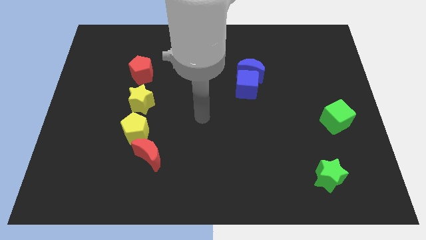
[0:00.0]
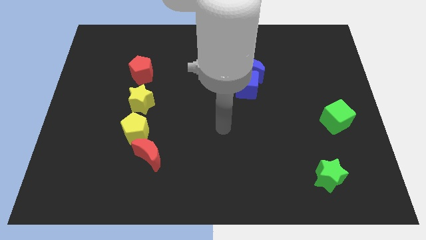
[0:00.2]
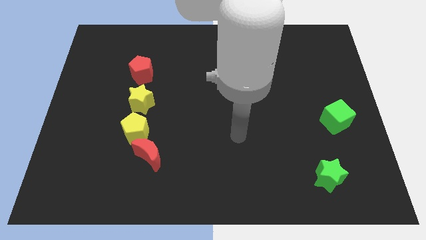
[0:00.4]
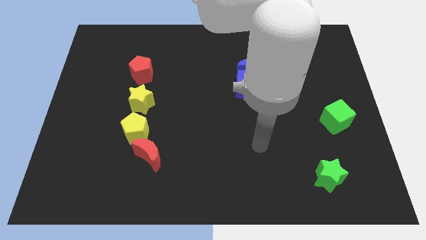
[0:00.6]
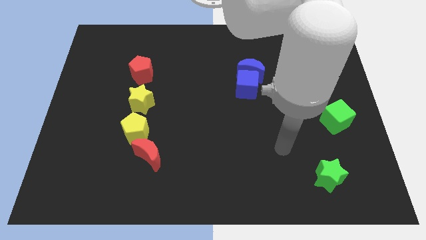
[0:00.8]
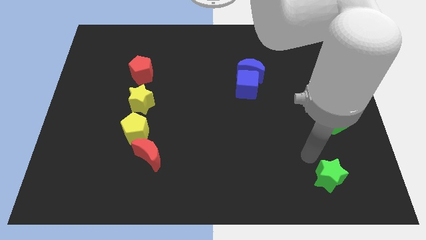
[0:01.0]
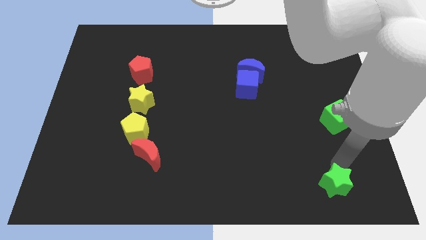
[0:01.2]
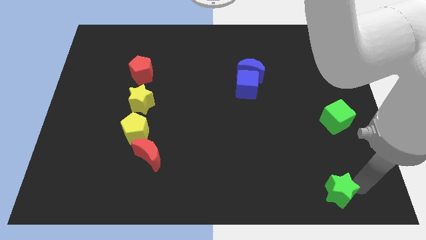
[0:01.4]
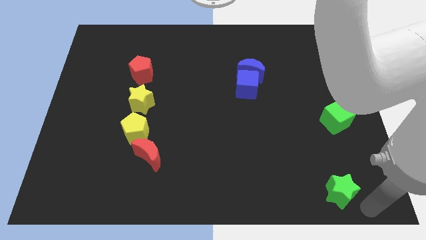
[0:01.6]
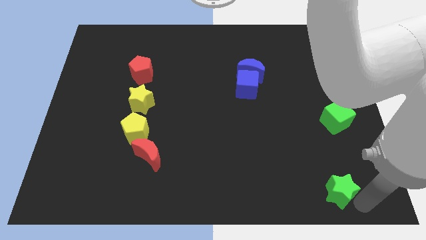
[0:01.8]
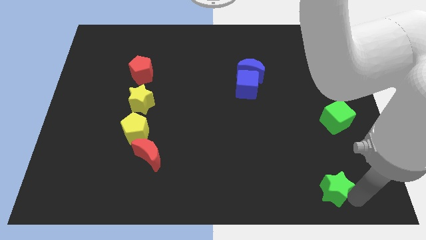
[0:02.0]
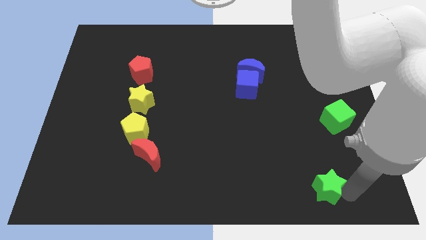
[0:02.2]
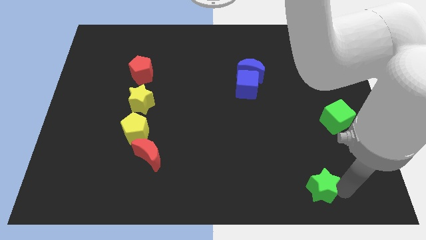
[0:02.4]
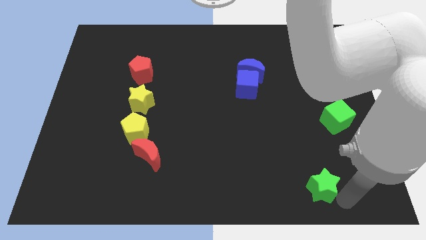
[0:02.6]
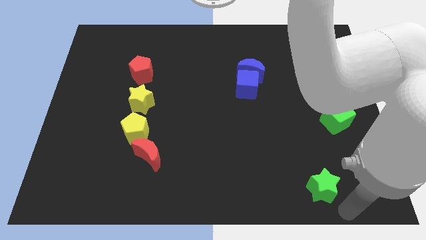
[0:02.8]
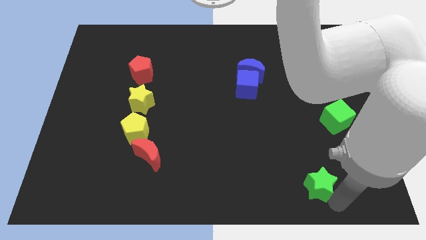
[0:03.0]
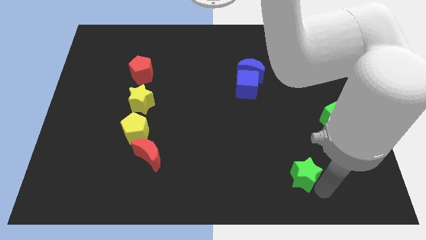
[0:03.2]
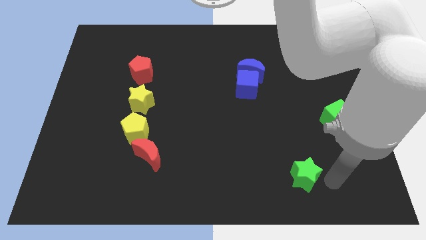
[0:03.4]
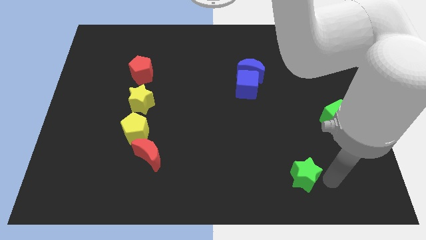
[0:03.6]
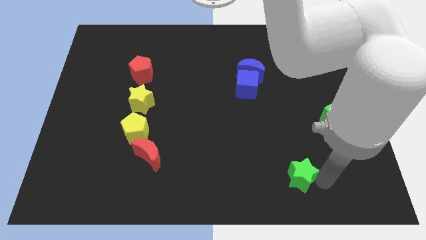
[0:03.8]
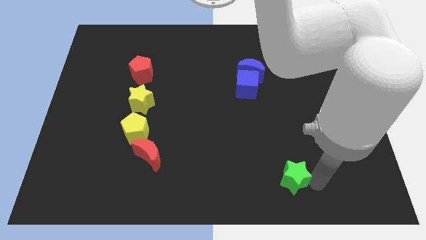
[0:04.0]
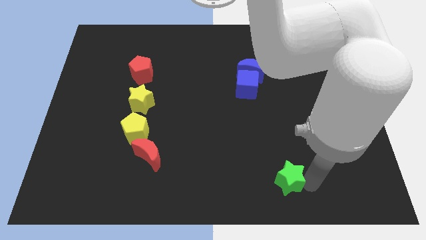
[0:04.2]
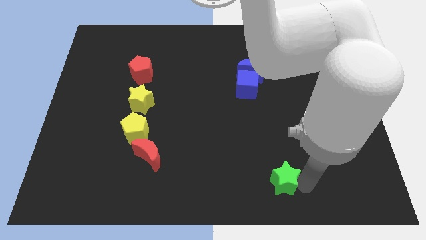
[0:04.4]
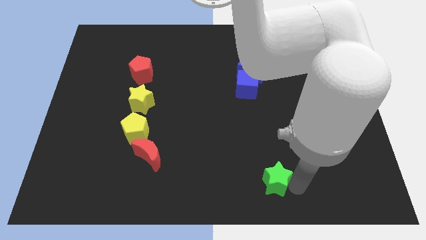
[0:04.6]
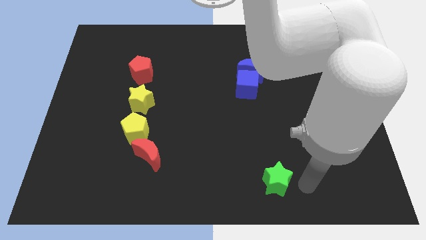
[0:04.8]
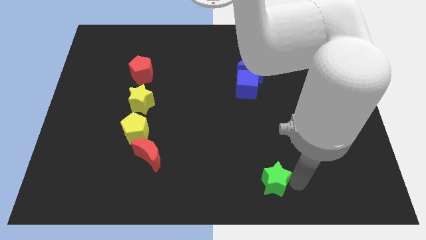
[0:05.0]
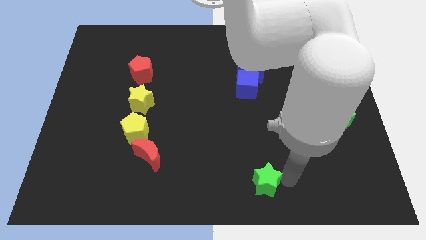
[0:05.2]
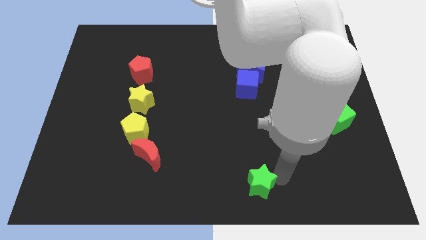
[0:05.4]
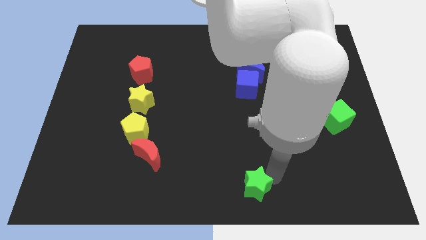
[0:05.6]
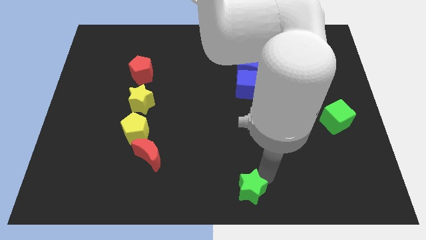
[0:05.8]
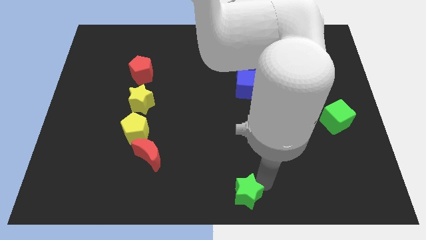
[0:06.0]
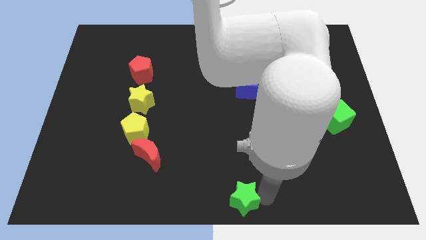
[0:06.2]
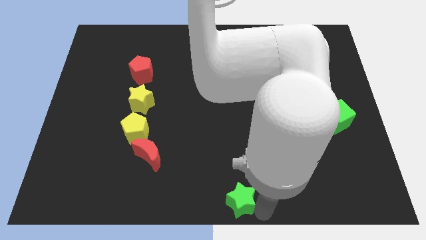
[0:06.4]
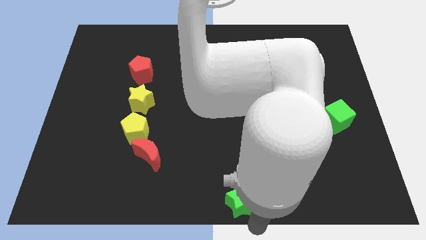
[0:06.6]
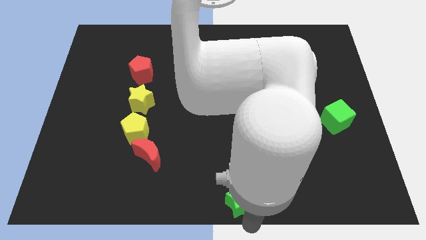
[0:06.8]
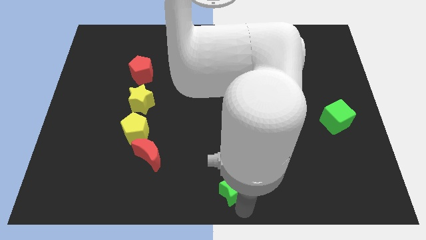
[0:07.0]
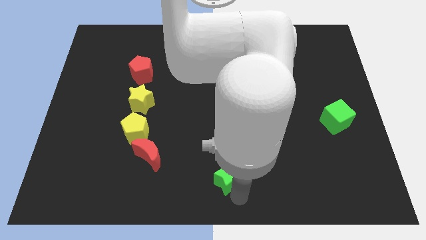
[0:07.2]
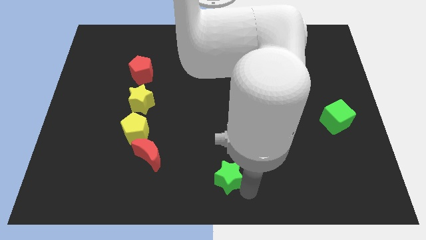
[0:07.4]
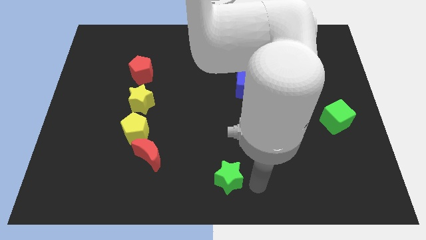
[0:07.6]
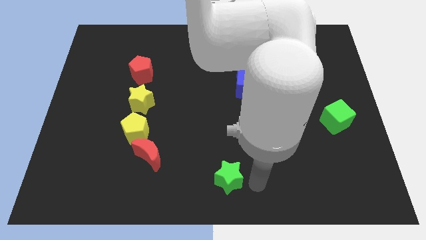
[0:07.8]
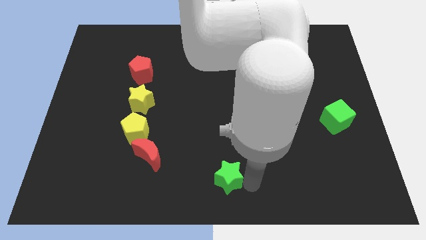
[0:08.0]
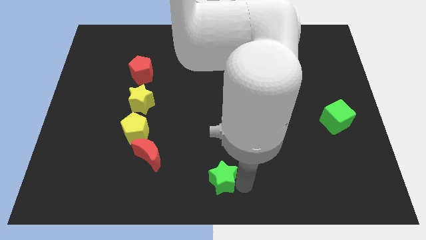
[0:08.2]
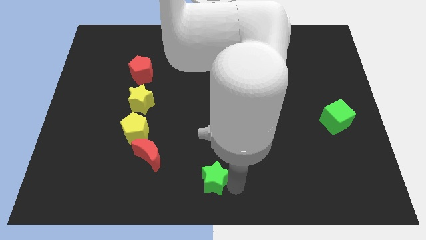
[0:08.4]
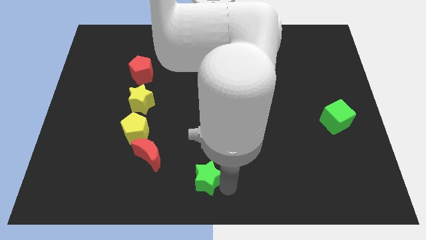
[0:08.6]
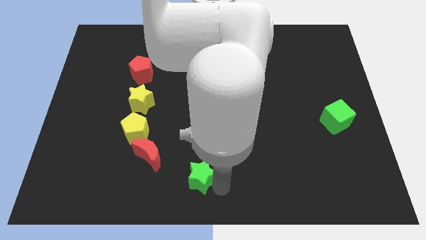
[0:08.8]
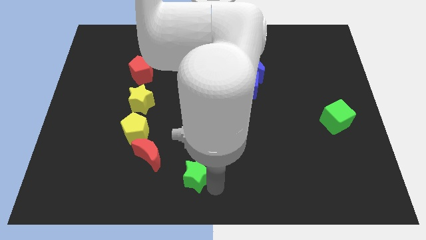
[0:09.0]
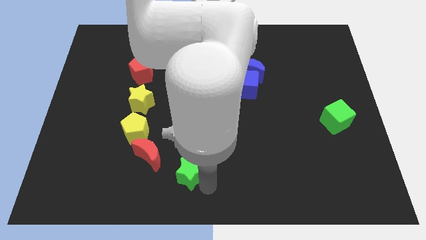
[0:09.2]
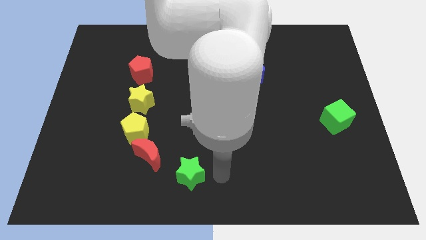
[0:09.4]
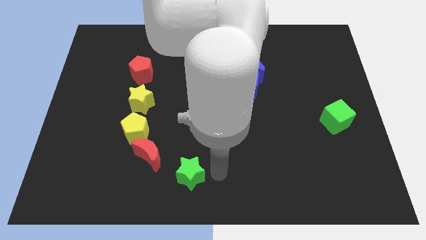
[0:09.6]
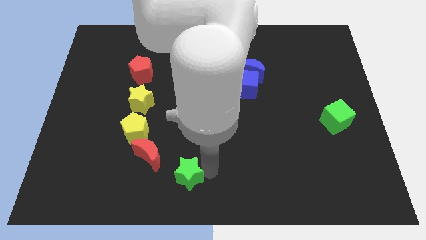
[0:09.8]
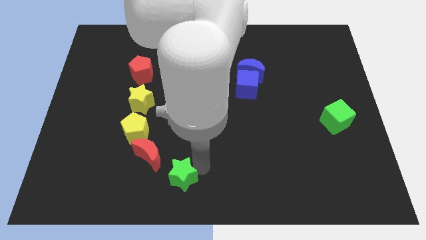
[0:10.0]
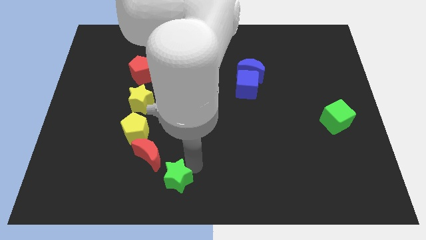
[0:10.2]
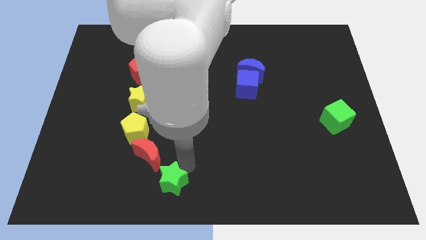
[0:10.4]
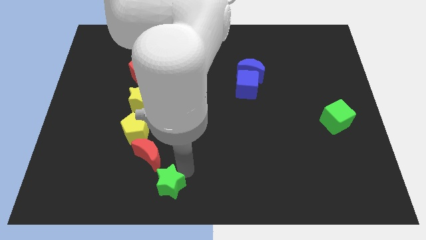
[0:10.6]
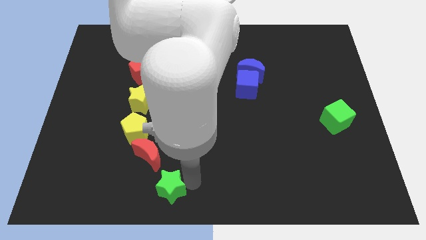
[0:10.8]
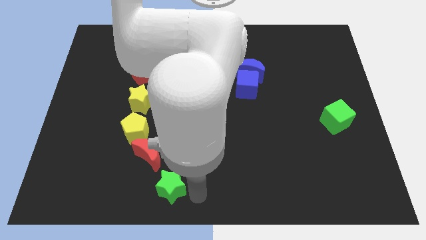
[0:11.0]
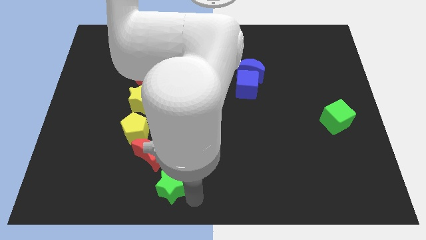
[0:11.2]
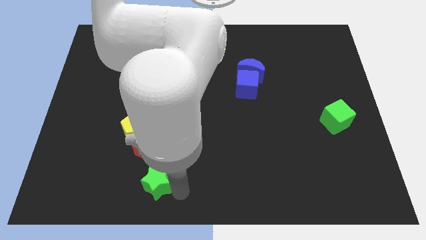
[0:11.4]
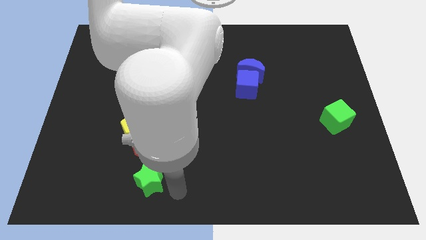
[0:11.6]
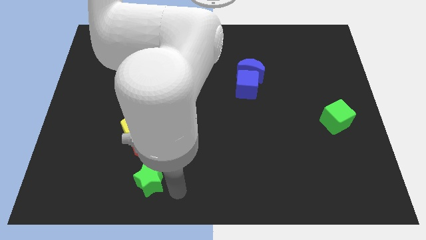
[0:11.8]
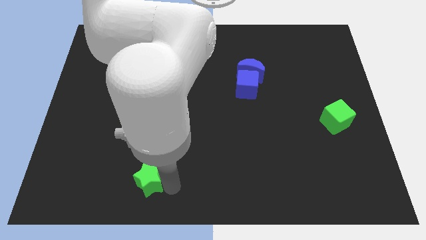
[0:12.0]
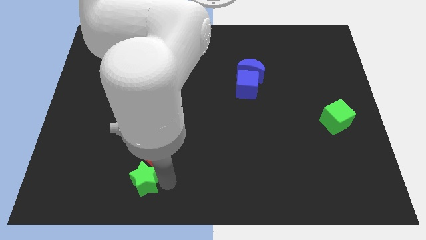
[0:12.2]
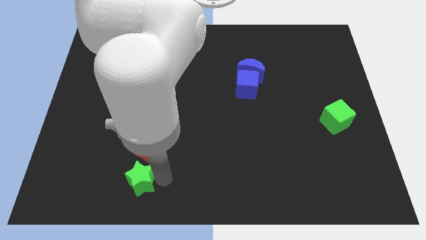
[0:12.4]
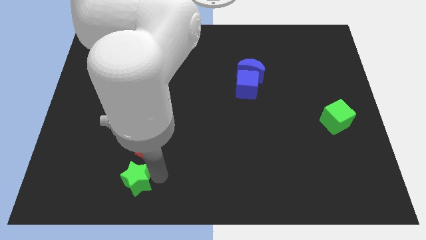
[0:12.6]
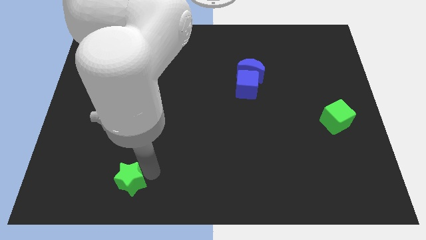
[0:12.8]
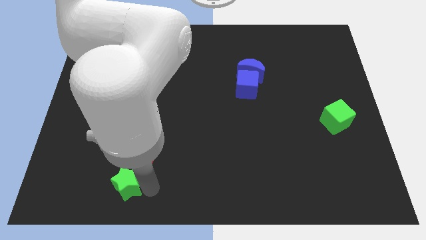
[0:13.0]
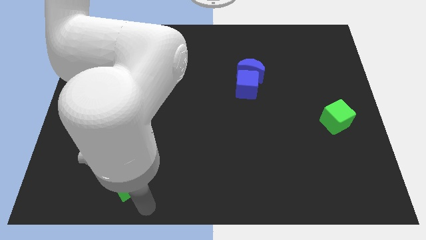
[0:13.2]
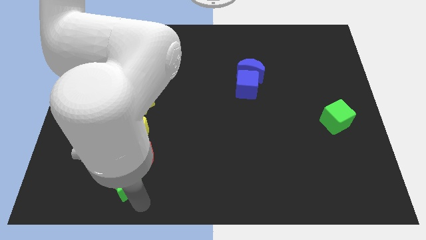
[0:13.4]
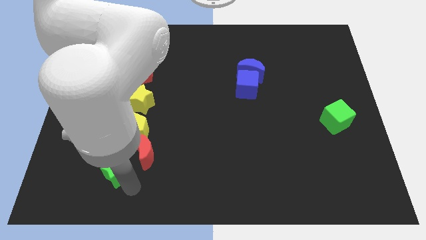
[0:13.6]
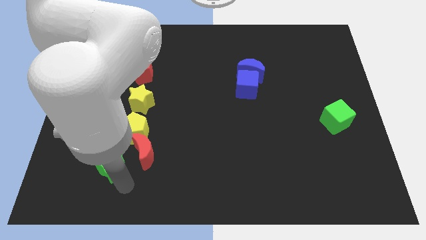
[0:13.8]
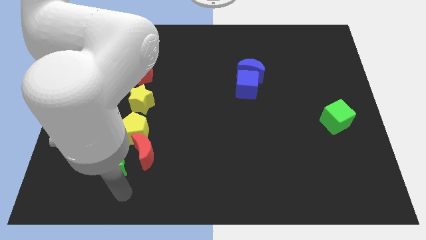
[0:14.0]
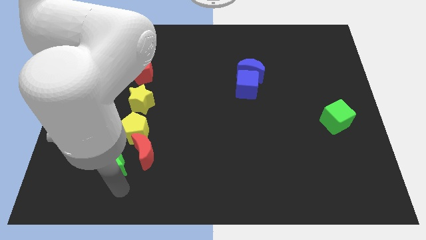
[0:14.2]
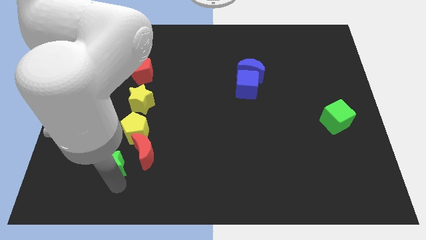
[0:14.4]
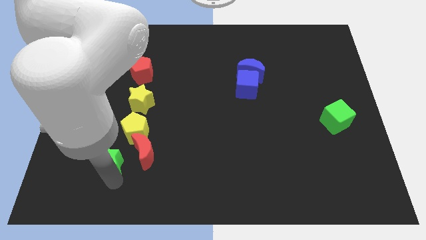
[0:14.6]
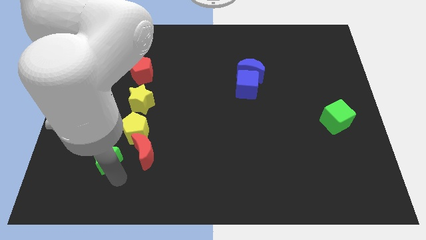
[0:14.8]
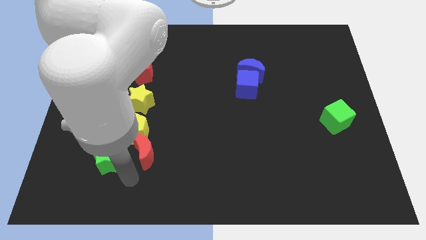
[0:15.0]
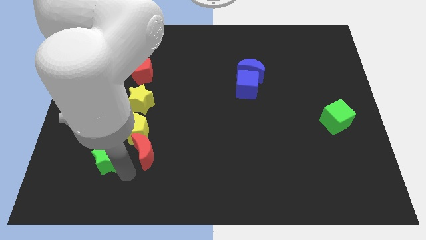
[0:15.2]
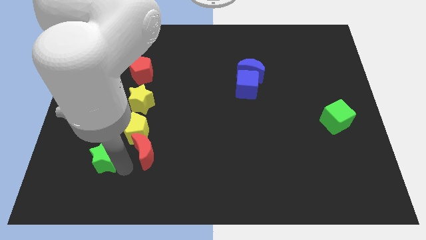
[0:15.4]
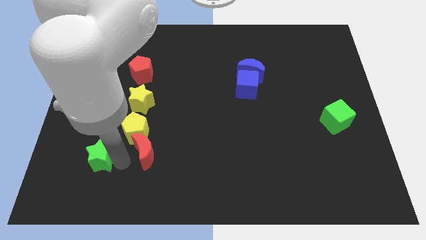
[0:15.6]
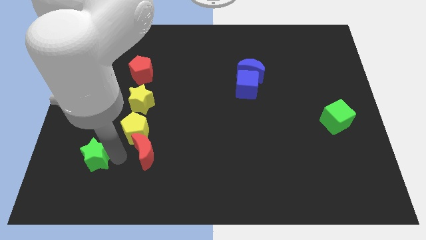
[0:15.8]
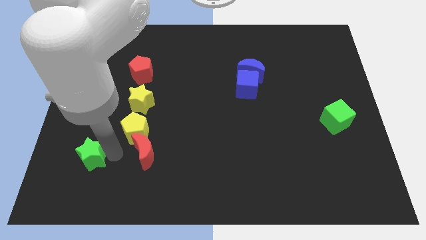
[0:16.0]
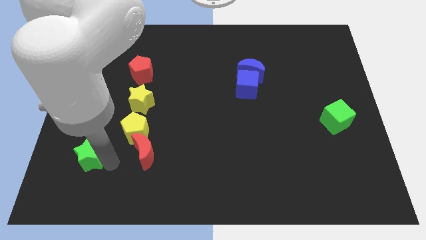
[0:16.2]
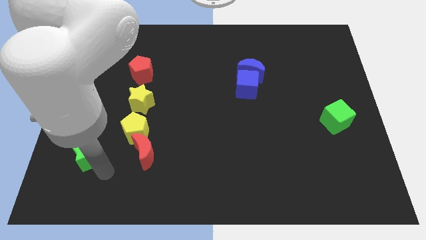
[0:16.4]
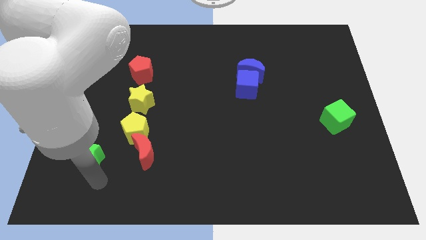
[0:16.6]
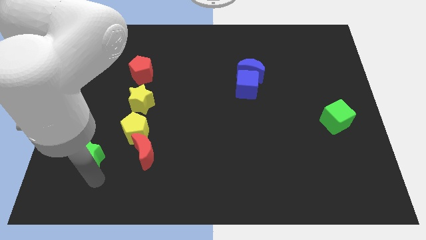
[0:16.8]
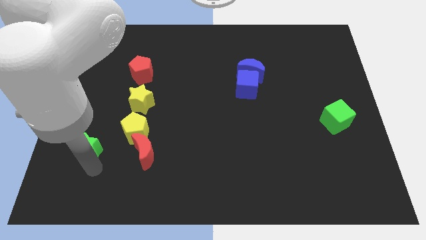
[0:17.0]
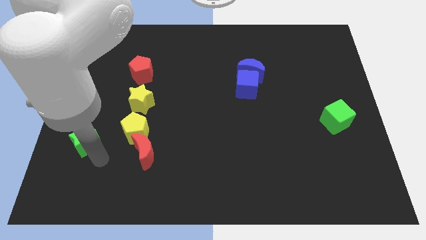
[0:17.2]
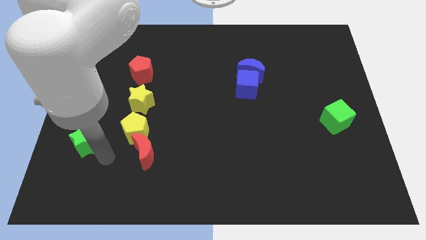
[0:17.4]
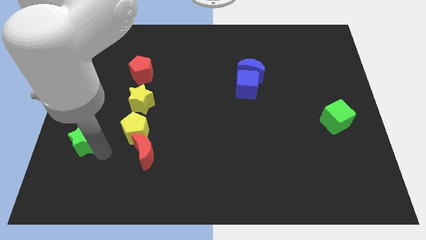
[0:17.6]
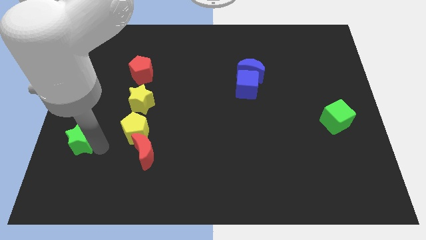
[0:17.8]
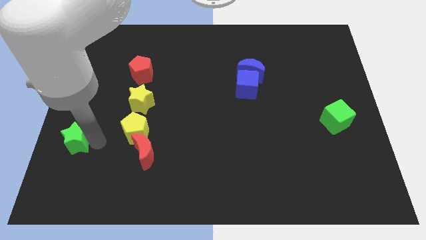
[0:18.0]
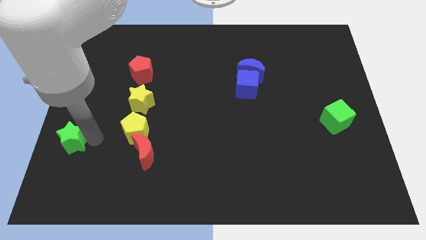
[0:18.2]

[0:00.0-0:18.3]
put the green star to the left side
